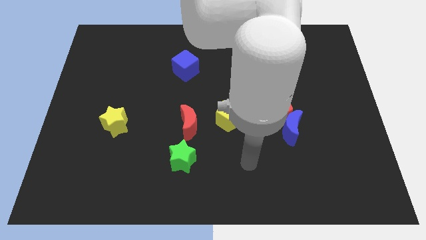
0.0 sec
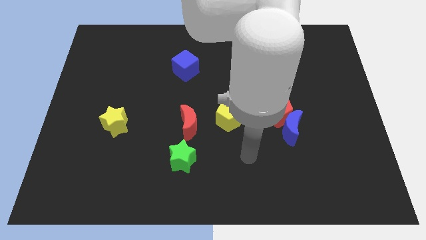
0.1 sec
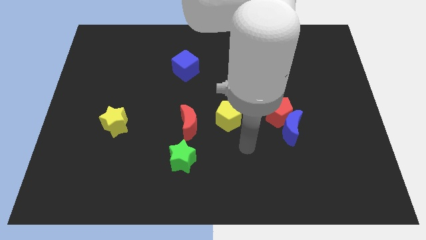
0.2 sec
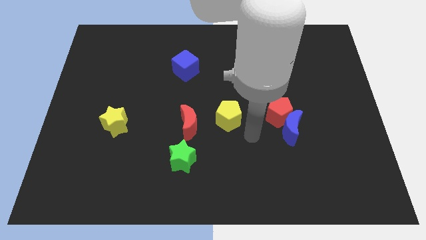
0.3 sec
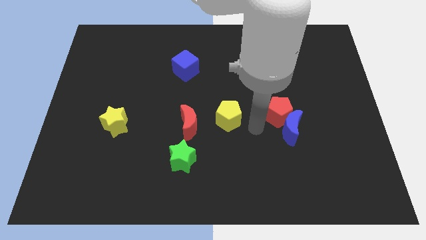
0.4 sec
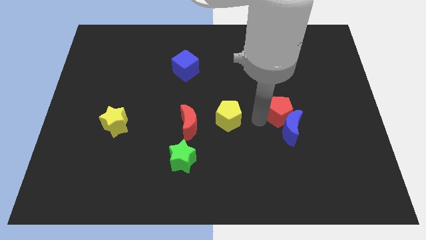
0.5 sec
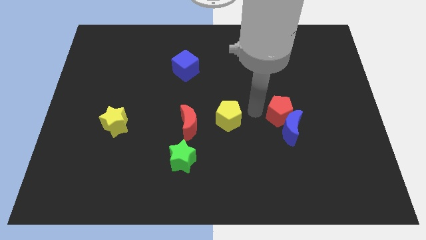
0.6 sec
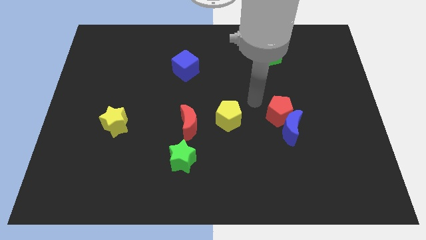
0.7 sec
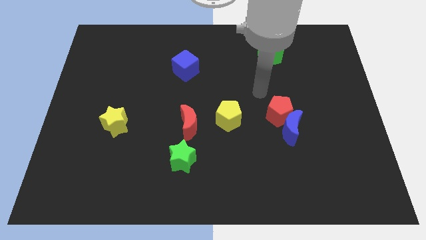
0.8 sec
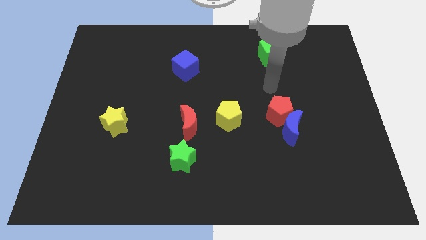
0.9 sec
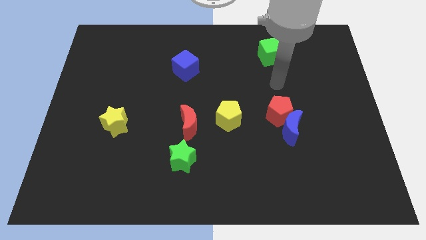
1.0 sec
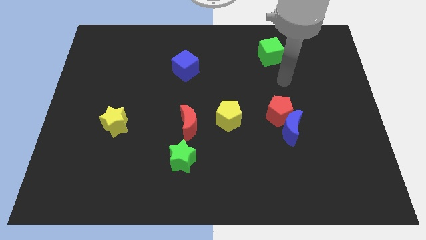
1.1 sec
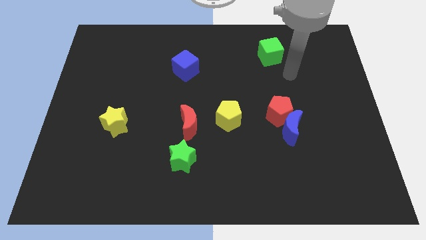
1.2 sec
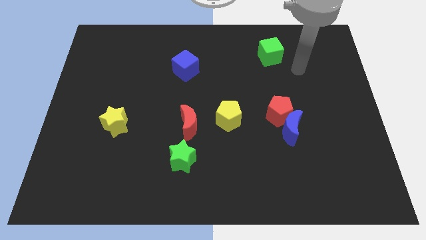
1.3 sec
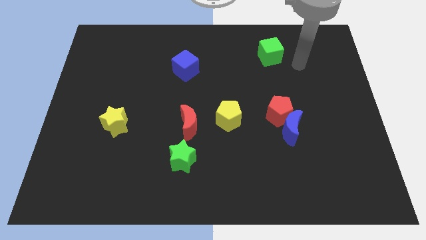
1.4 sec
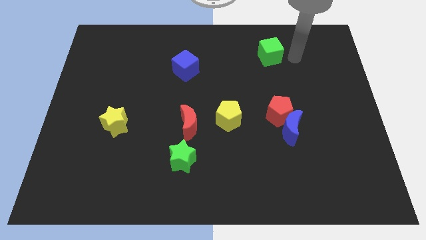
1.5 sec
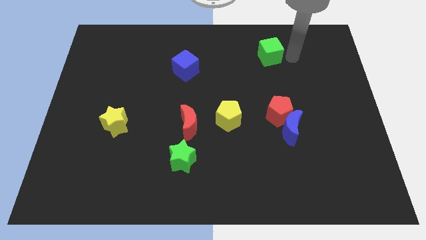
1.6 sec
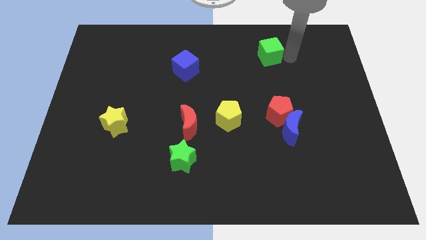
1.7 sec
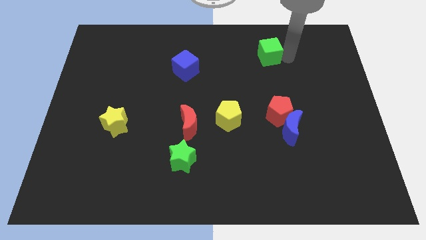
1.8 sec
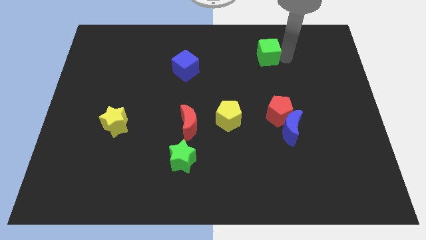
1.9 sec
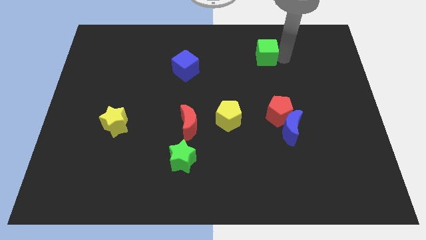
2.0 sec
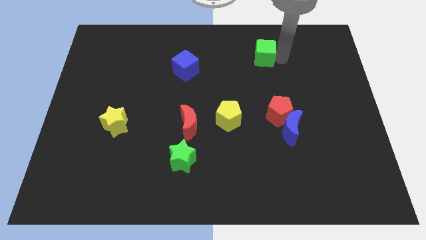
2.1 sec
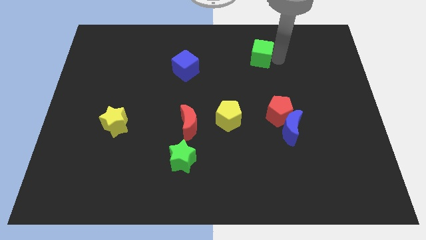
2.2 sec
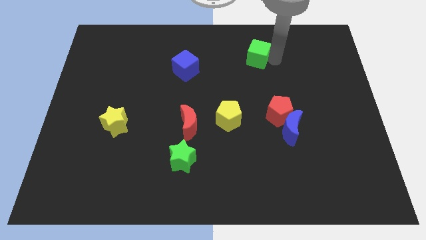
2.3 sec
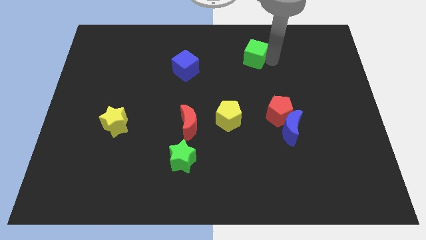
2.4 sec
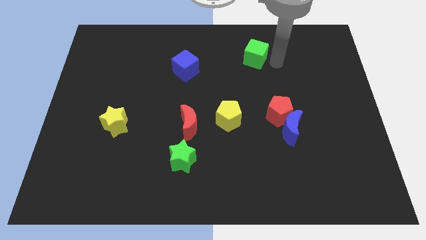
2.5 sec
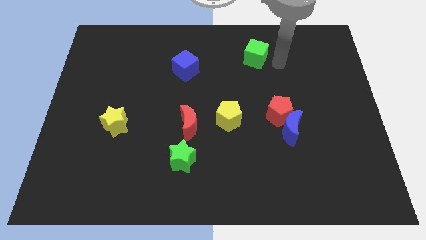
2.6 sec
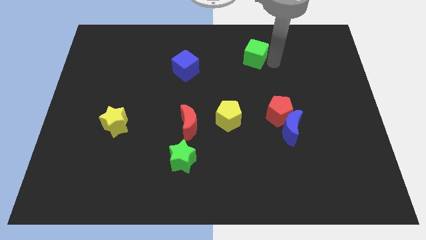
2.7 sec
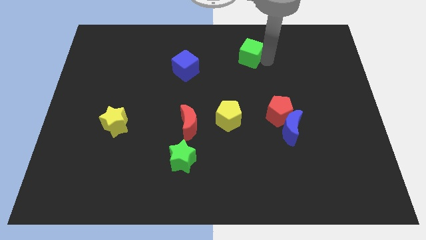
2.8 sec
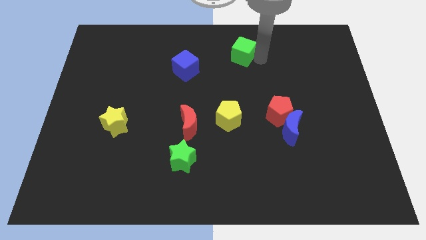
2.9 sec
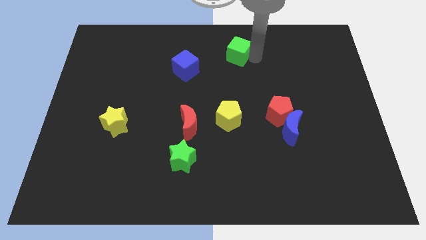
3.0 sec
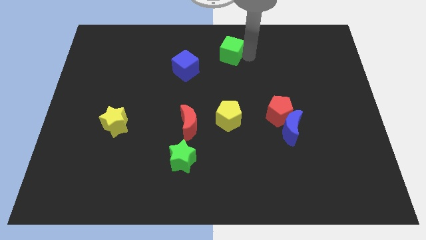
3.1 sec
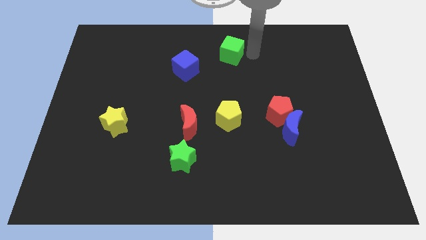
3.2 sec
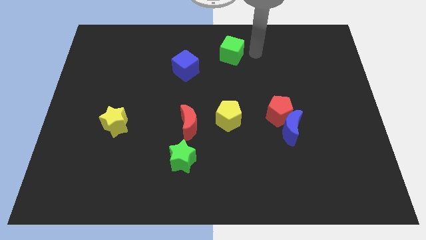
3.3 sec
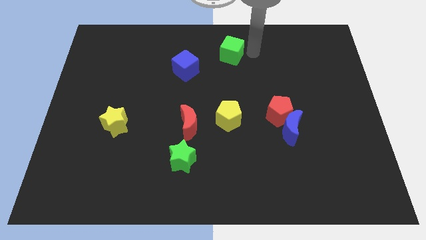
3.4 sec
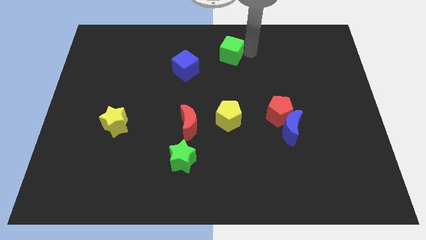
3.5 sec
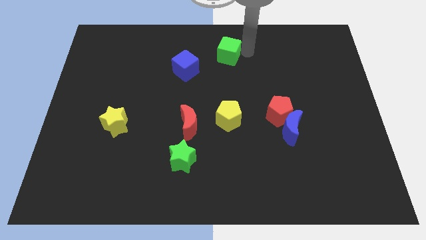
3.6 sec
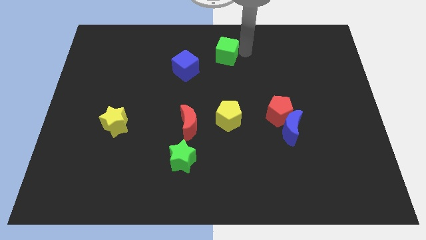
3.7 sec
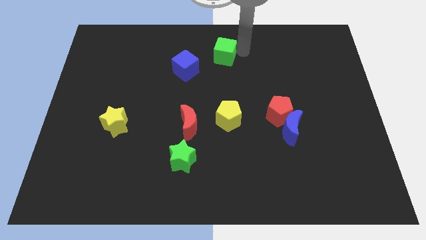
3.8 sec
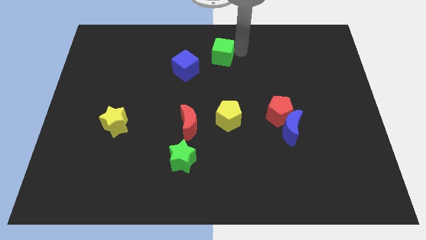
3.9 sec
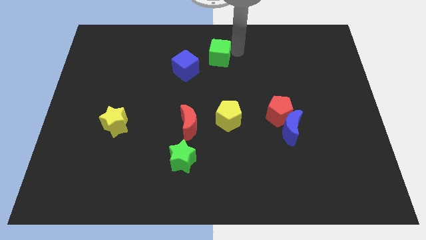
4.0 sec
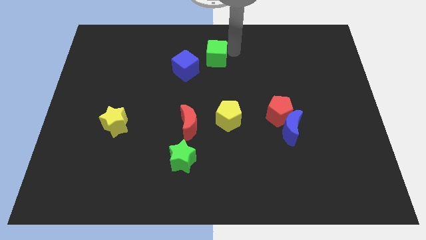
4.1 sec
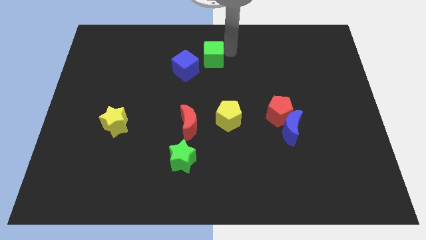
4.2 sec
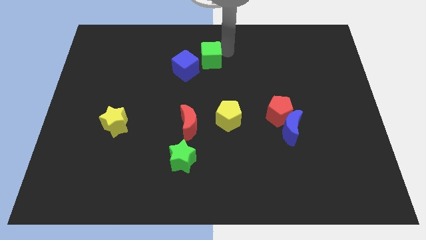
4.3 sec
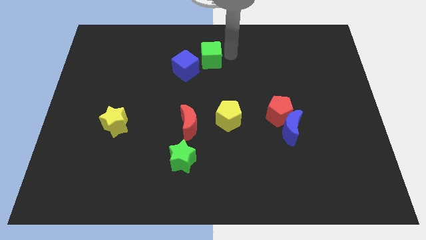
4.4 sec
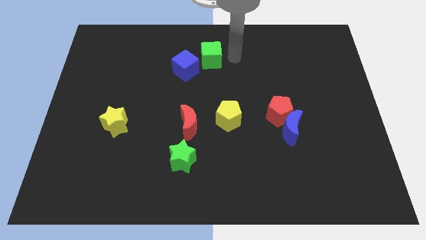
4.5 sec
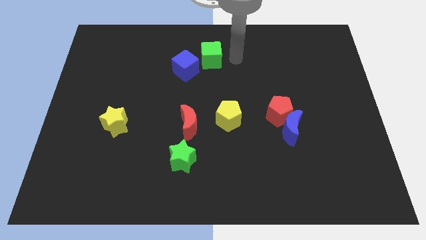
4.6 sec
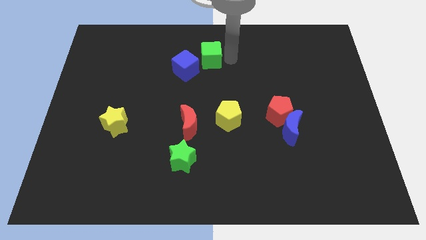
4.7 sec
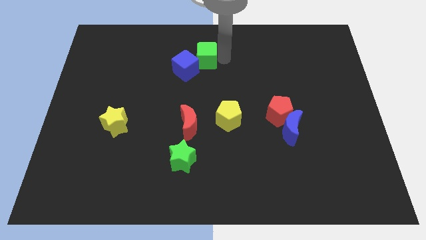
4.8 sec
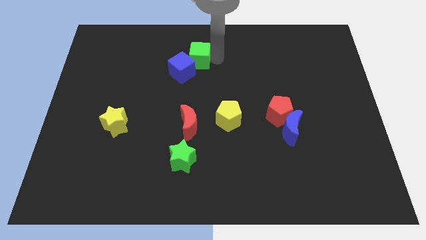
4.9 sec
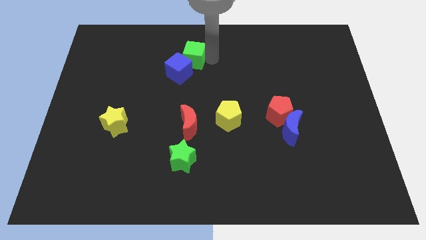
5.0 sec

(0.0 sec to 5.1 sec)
slide the green cube to the left

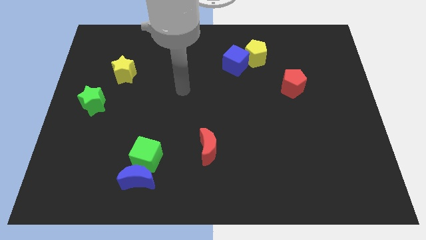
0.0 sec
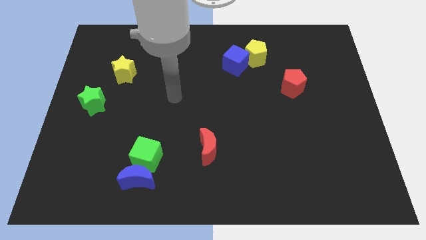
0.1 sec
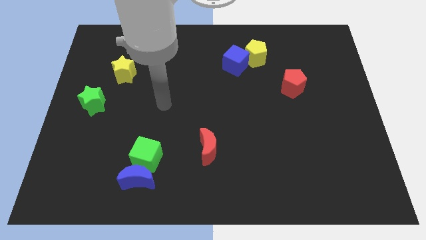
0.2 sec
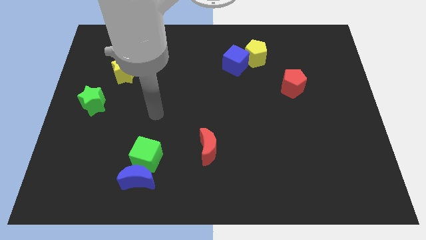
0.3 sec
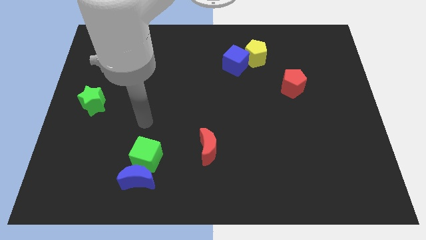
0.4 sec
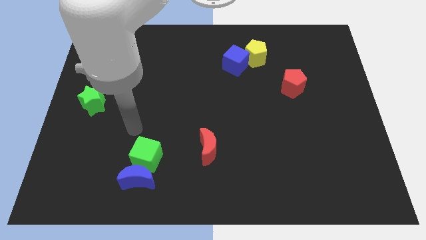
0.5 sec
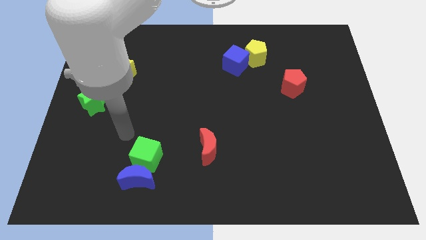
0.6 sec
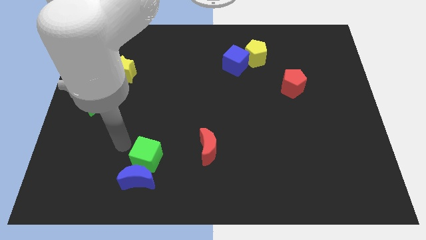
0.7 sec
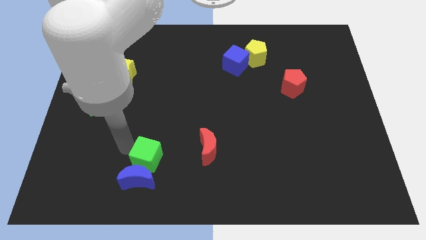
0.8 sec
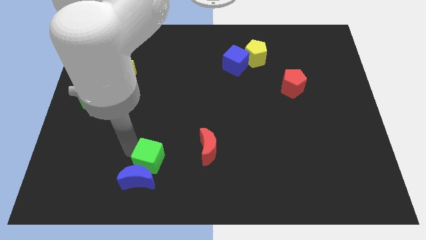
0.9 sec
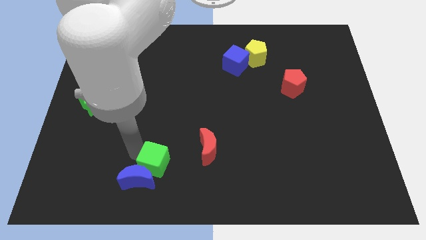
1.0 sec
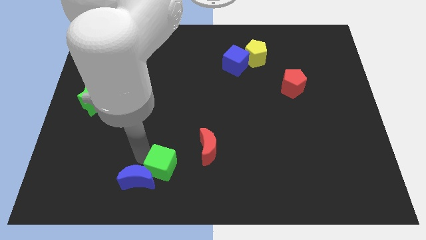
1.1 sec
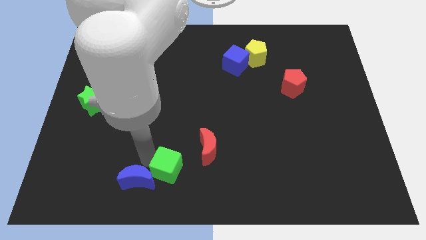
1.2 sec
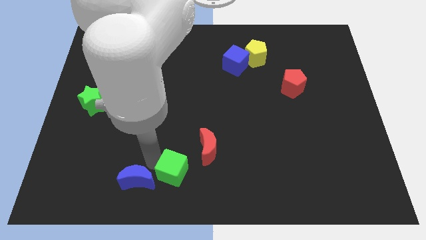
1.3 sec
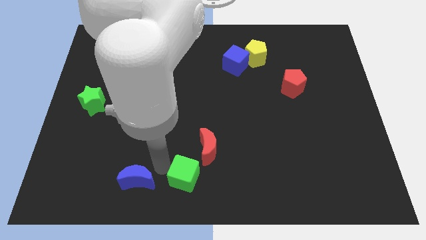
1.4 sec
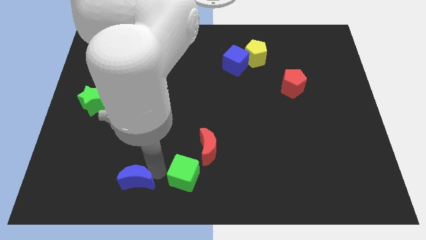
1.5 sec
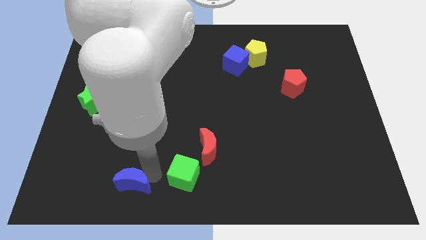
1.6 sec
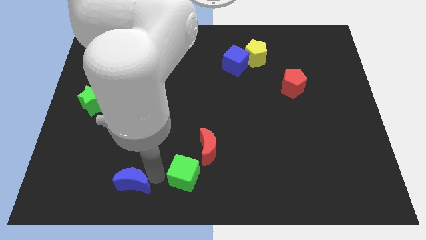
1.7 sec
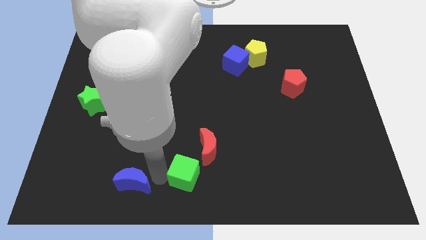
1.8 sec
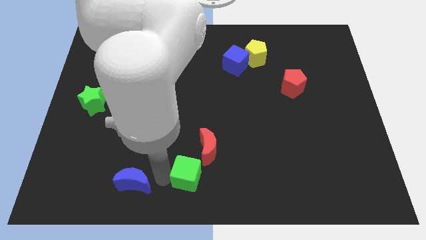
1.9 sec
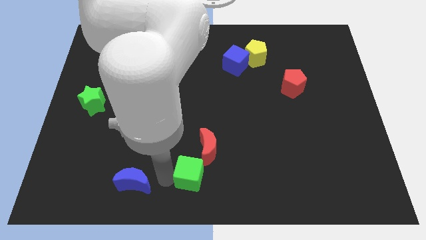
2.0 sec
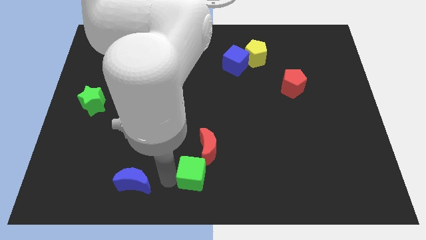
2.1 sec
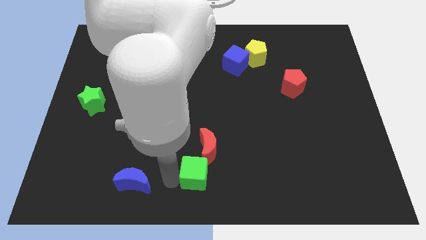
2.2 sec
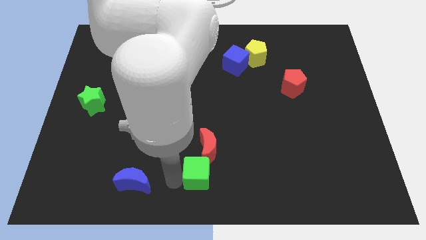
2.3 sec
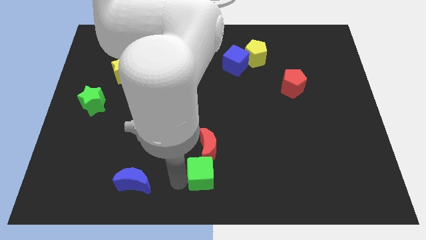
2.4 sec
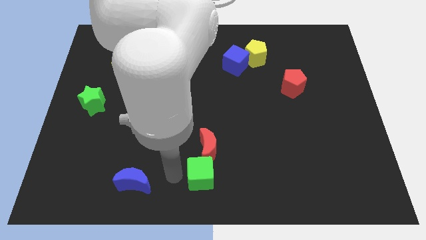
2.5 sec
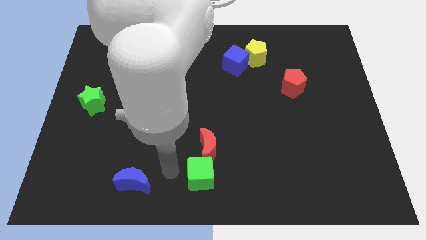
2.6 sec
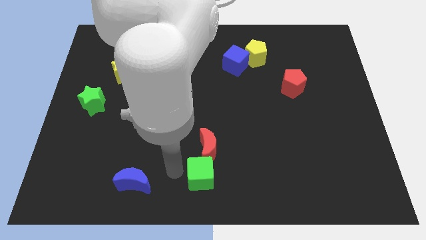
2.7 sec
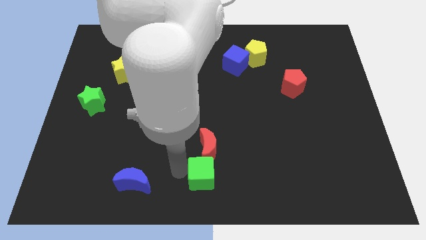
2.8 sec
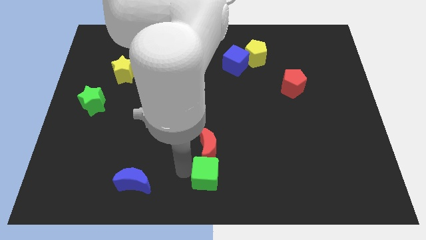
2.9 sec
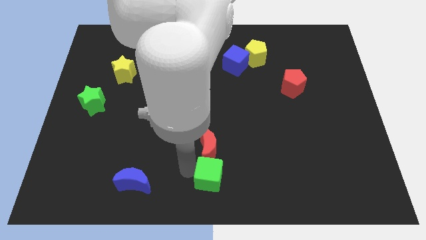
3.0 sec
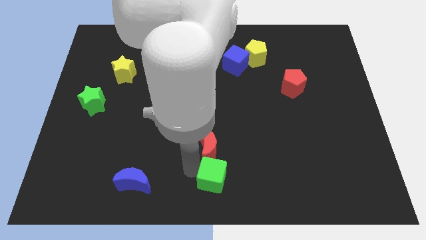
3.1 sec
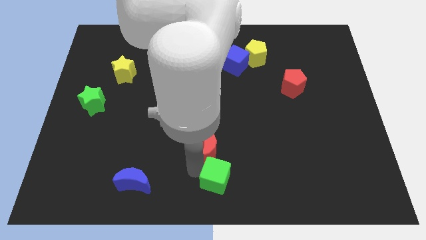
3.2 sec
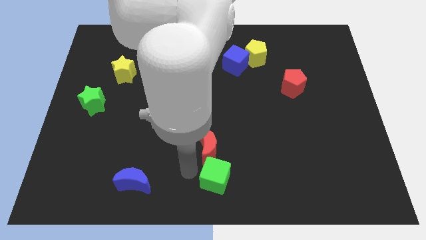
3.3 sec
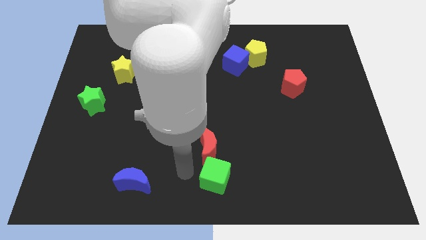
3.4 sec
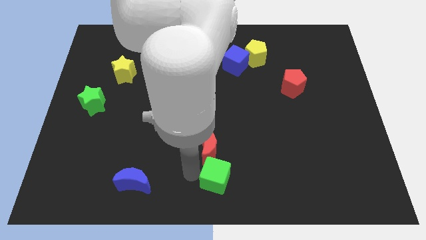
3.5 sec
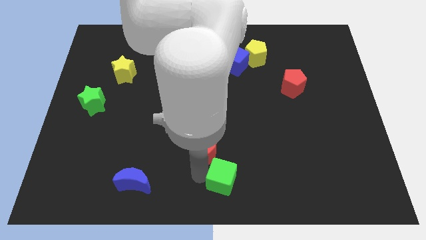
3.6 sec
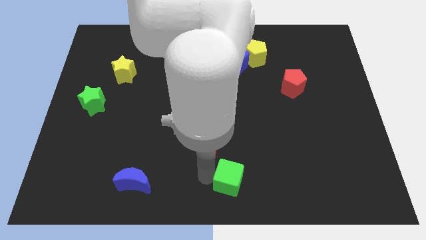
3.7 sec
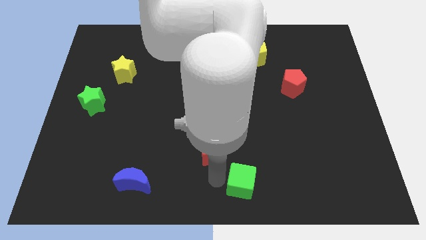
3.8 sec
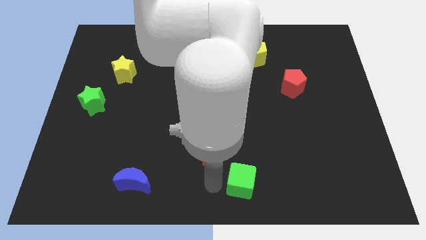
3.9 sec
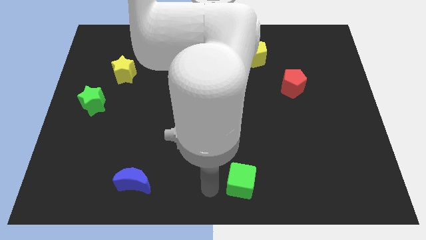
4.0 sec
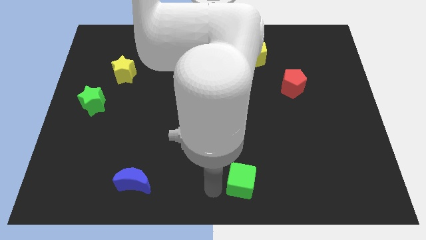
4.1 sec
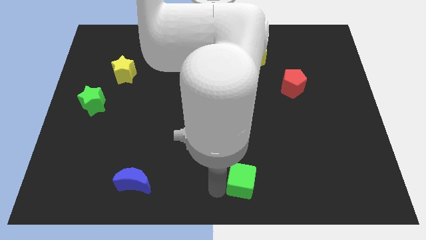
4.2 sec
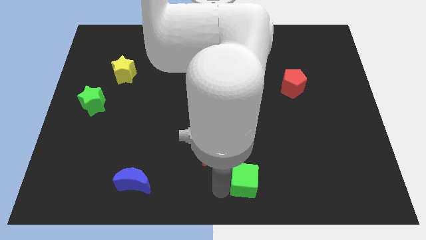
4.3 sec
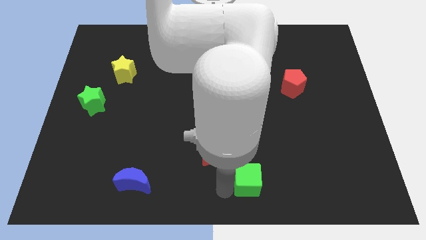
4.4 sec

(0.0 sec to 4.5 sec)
slide the green cube to the right
